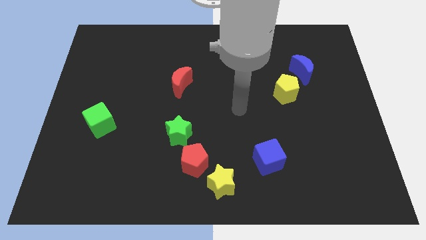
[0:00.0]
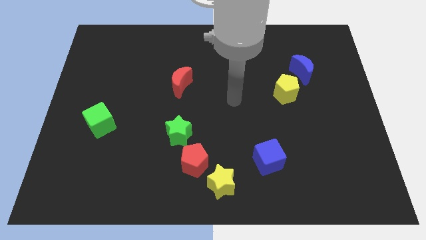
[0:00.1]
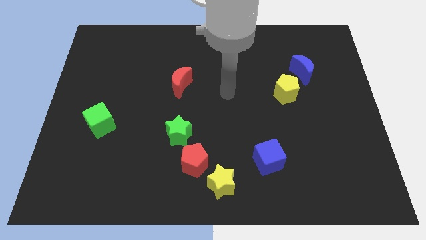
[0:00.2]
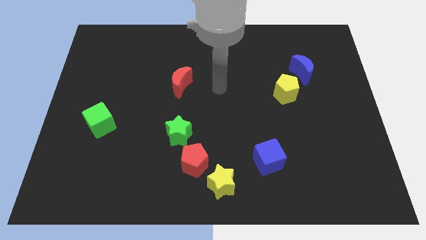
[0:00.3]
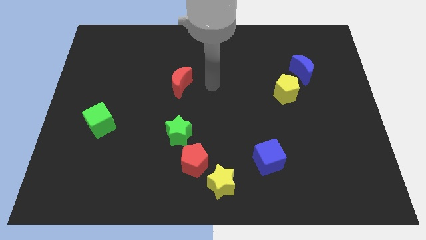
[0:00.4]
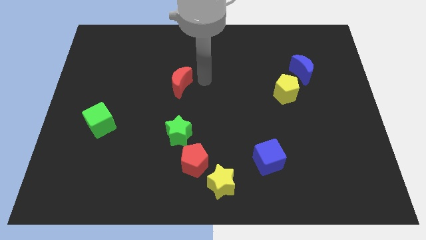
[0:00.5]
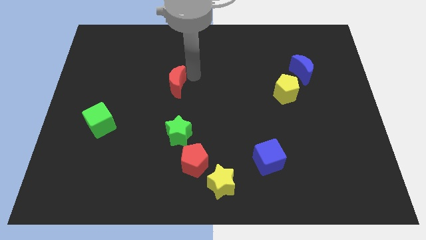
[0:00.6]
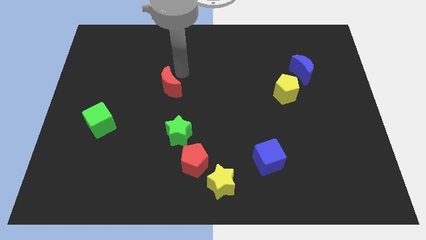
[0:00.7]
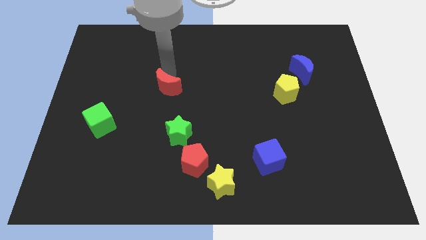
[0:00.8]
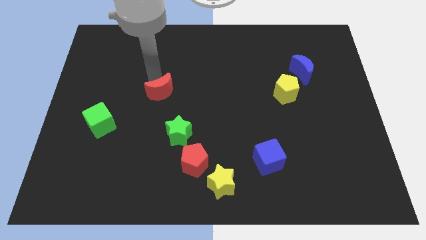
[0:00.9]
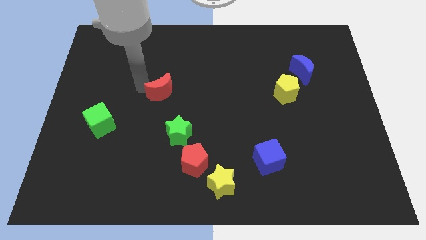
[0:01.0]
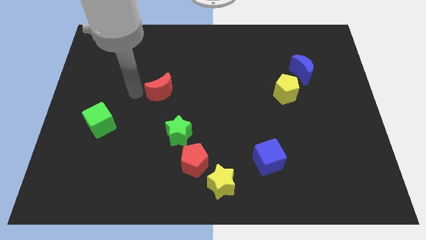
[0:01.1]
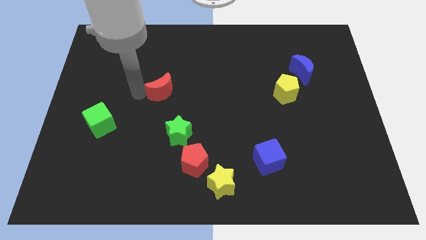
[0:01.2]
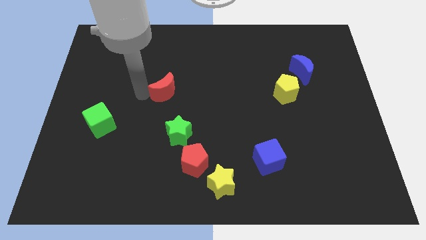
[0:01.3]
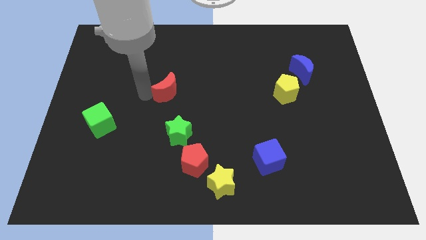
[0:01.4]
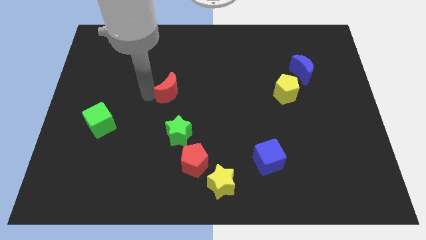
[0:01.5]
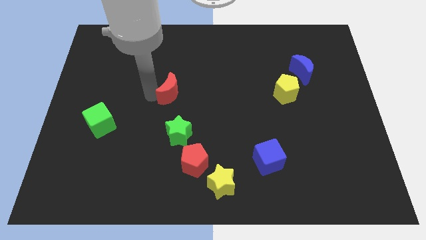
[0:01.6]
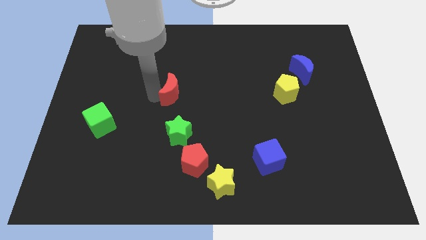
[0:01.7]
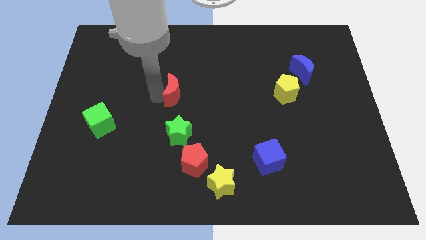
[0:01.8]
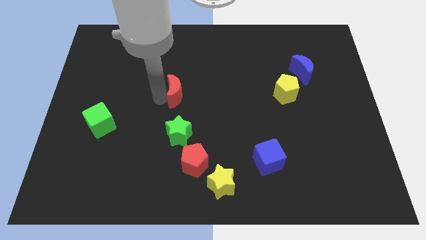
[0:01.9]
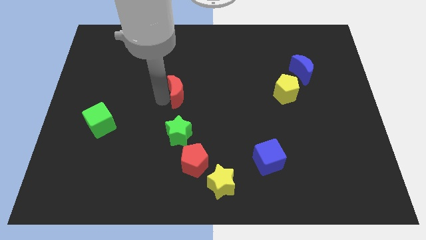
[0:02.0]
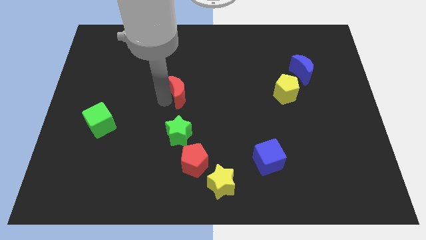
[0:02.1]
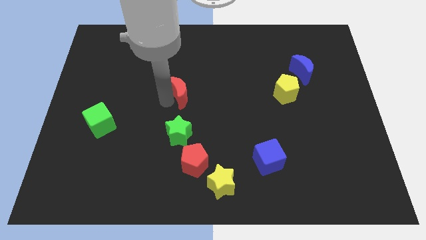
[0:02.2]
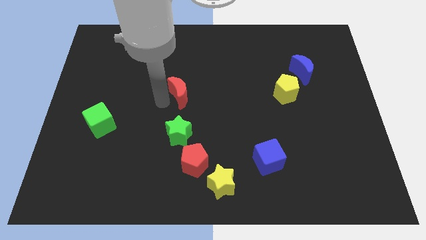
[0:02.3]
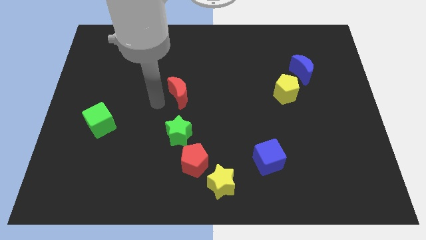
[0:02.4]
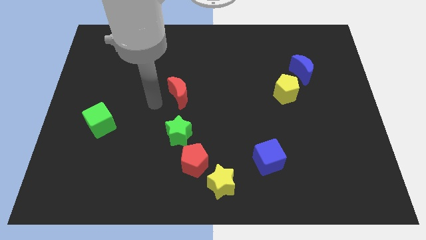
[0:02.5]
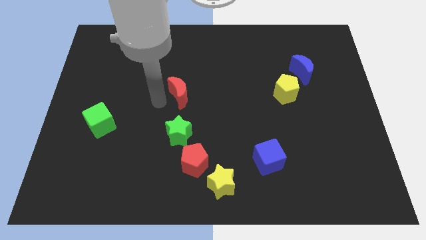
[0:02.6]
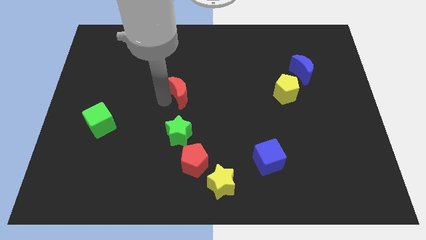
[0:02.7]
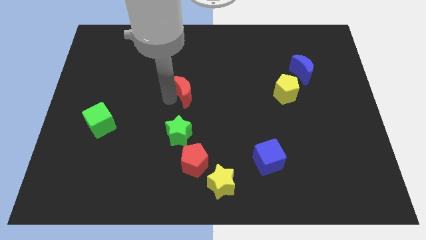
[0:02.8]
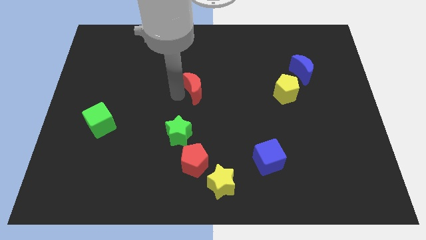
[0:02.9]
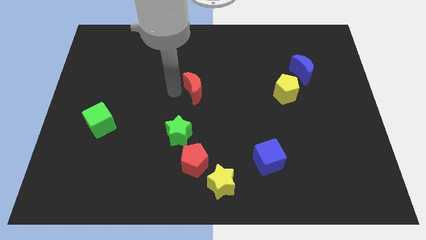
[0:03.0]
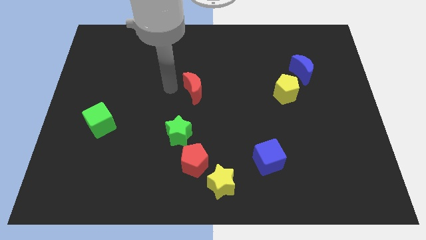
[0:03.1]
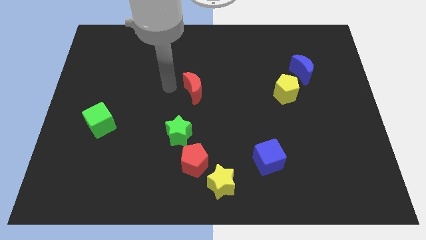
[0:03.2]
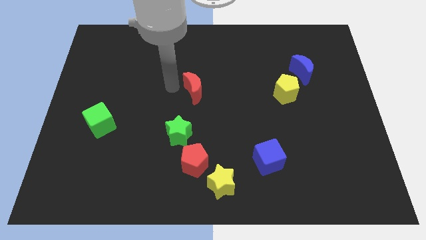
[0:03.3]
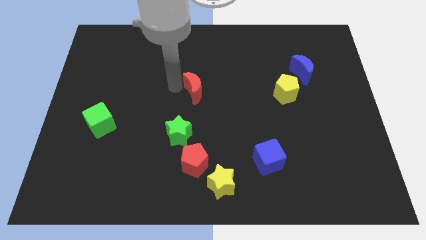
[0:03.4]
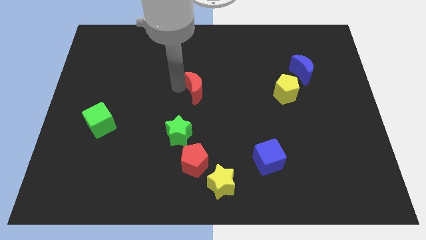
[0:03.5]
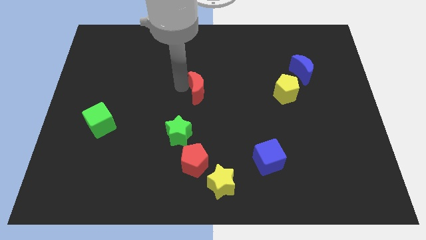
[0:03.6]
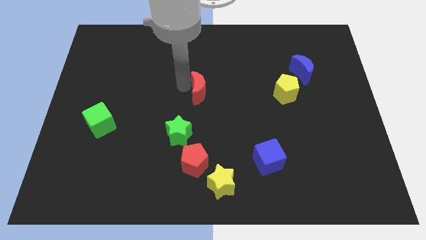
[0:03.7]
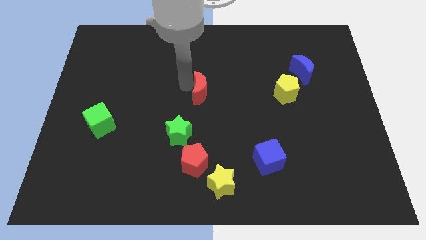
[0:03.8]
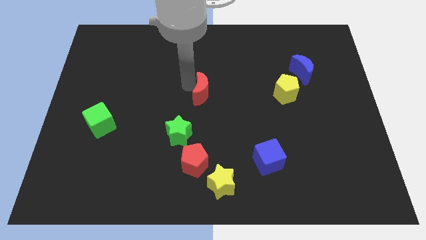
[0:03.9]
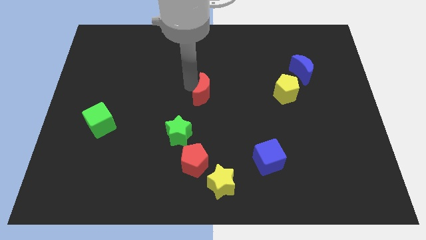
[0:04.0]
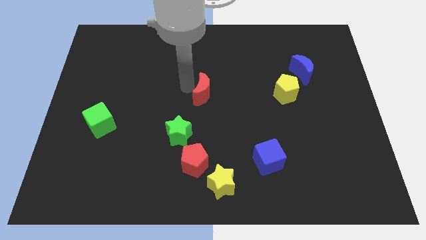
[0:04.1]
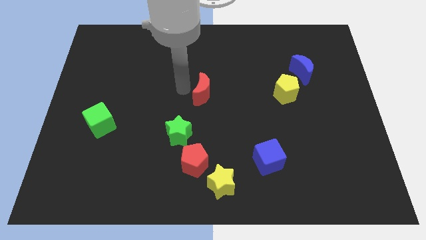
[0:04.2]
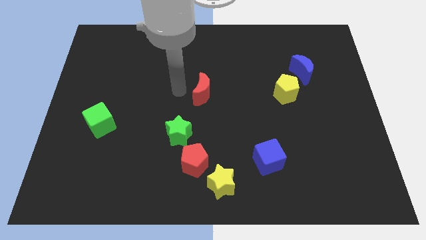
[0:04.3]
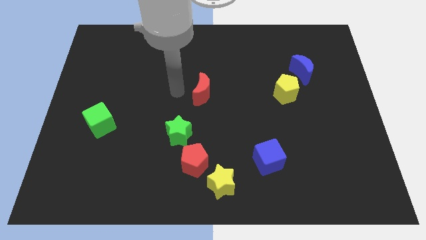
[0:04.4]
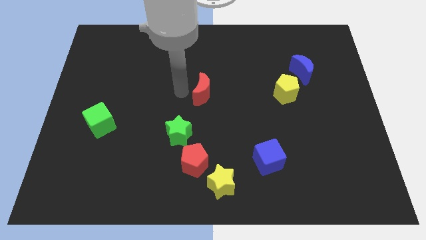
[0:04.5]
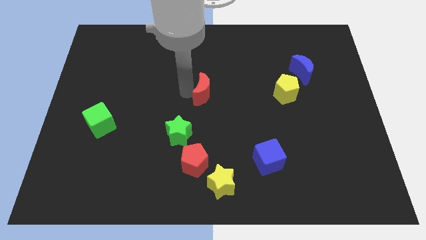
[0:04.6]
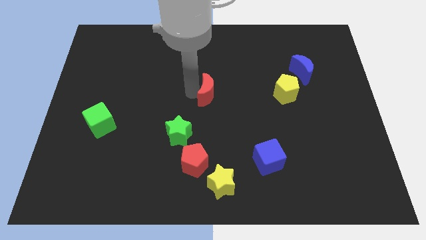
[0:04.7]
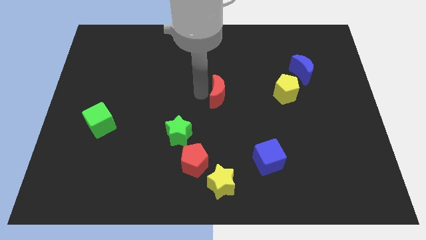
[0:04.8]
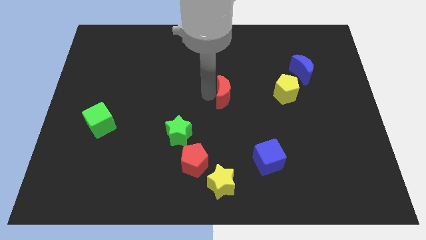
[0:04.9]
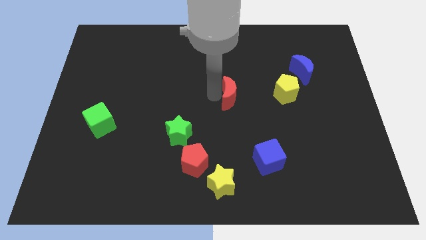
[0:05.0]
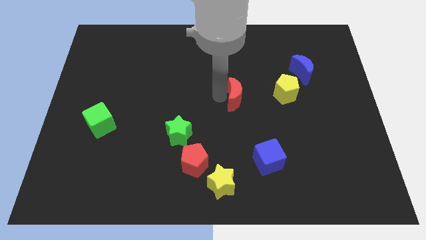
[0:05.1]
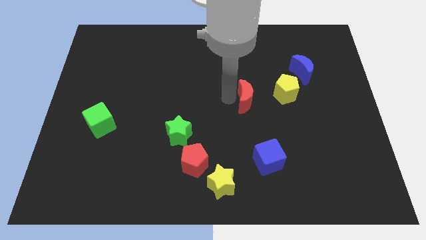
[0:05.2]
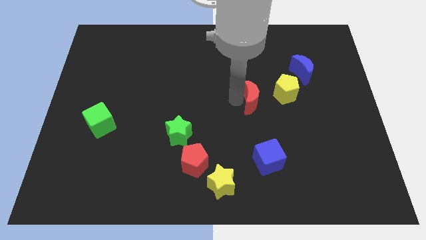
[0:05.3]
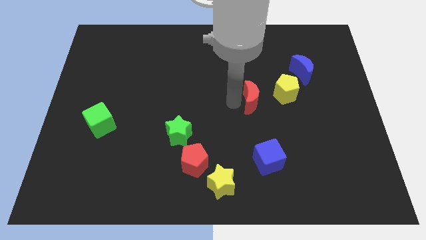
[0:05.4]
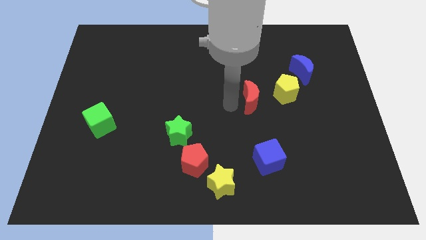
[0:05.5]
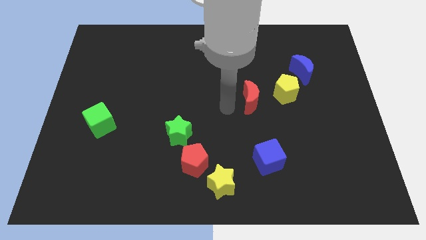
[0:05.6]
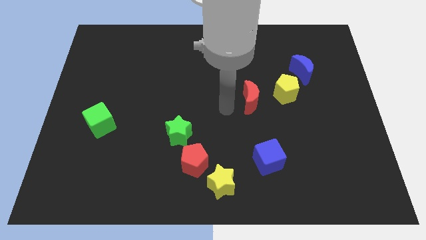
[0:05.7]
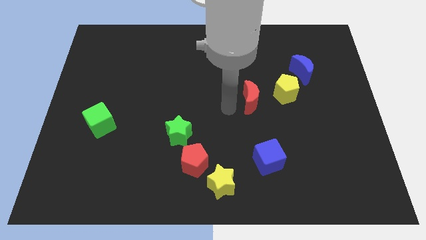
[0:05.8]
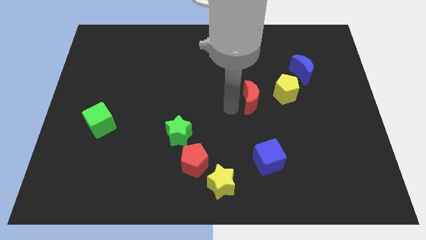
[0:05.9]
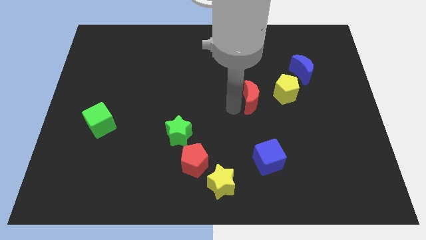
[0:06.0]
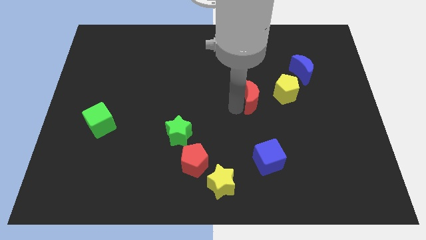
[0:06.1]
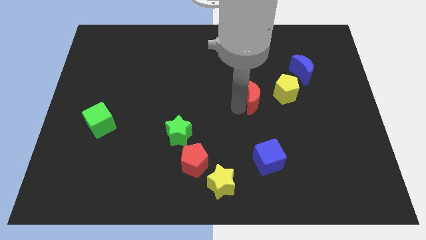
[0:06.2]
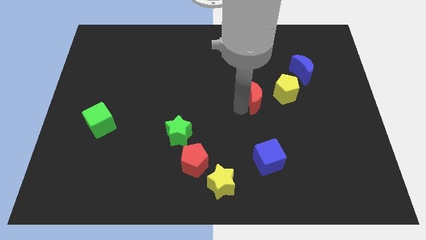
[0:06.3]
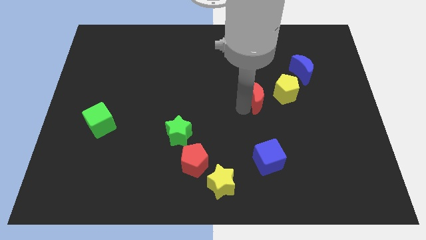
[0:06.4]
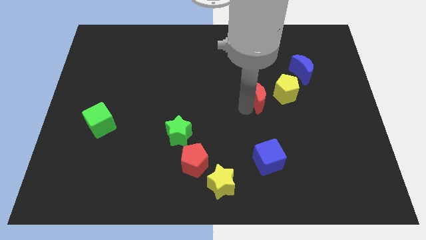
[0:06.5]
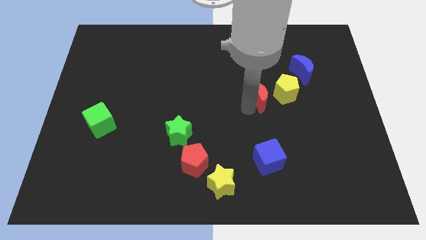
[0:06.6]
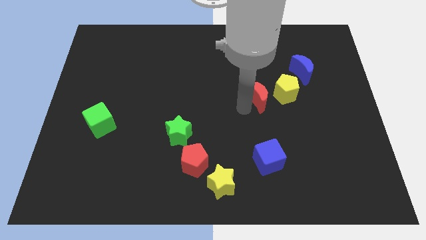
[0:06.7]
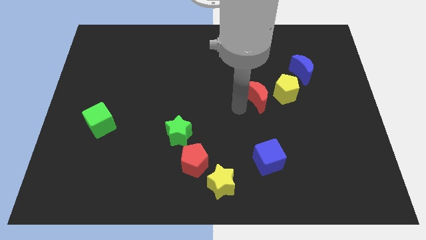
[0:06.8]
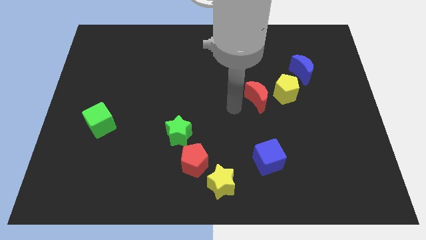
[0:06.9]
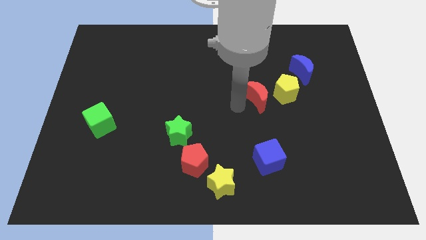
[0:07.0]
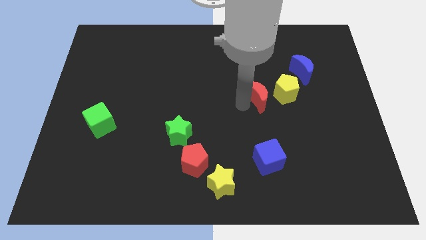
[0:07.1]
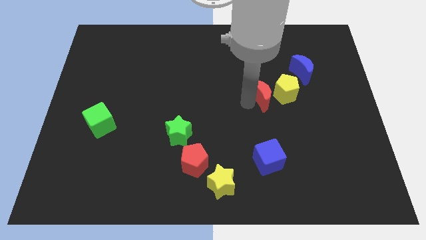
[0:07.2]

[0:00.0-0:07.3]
slide the red moon next to the yellow pentagon

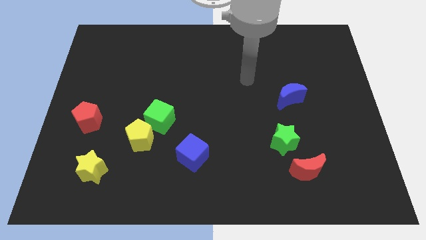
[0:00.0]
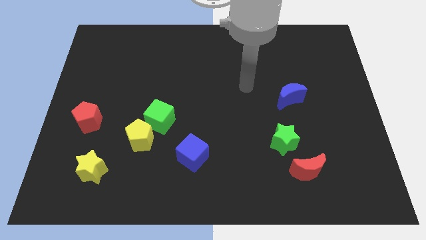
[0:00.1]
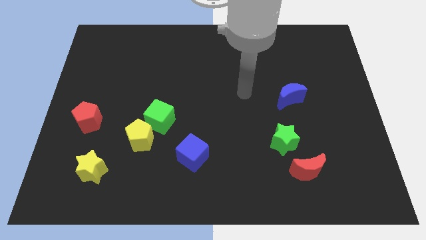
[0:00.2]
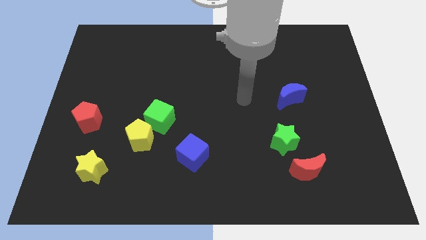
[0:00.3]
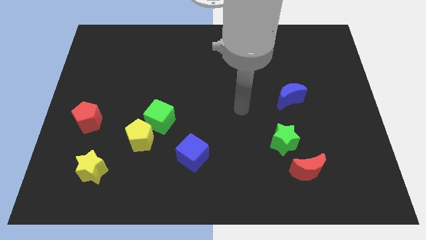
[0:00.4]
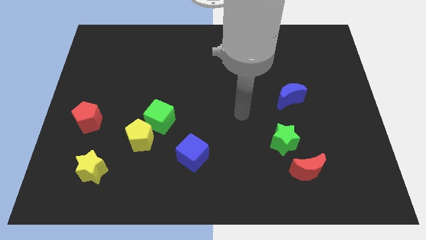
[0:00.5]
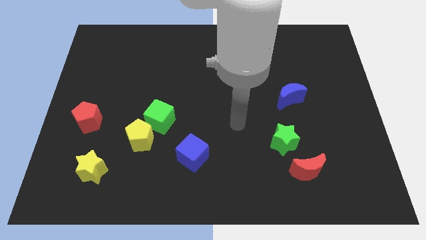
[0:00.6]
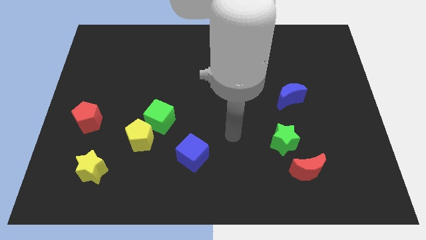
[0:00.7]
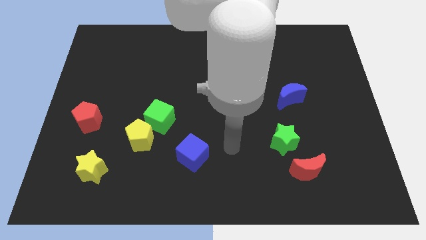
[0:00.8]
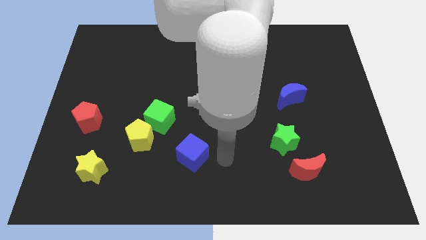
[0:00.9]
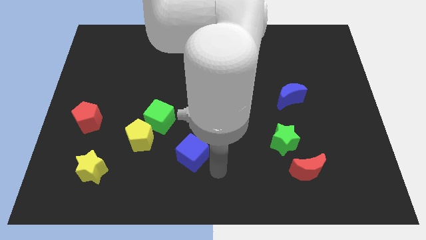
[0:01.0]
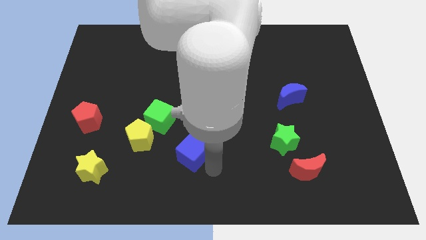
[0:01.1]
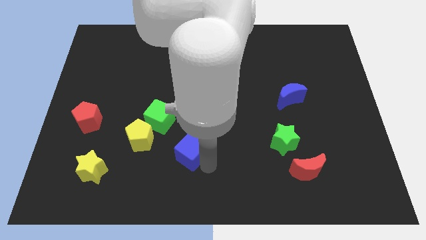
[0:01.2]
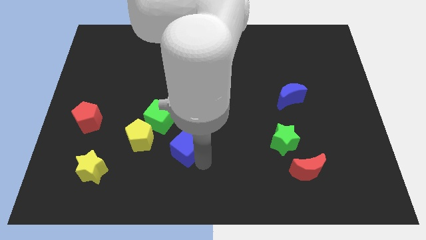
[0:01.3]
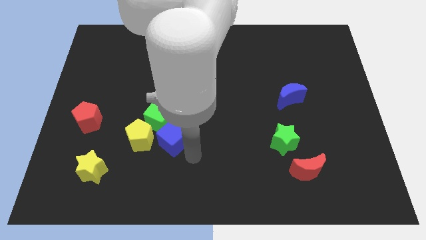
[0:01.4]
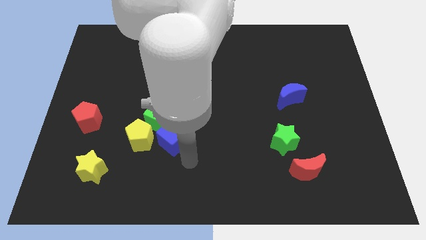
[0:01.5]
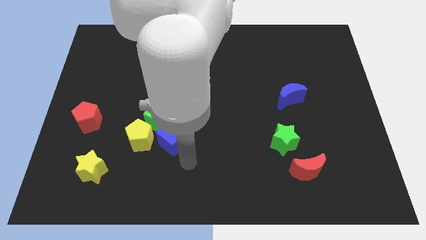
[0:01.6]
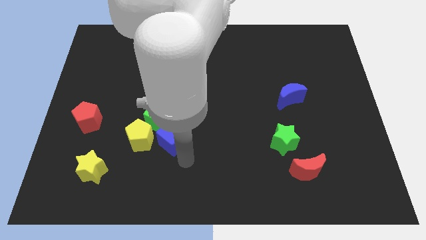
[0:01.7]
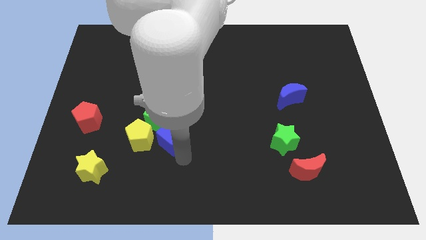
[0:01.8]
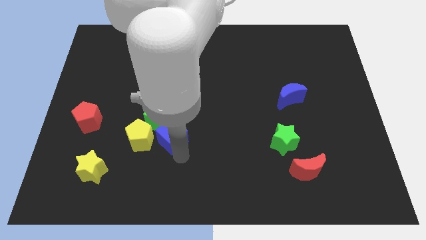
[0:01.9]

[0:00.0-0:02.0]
slide the blue cube close to the green cube
